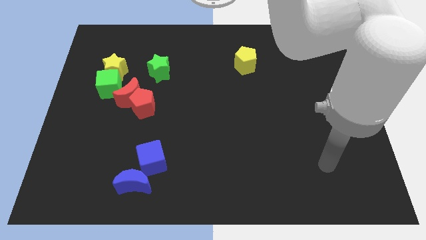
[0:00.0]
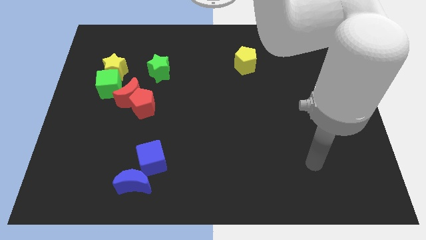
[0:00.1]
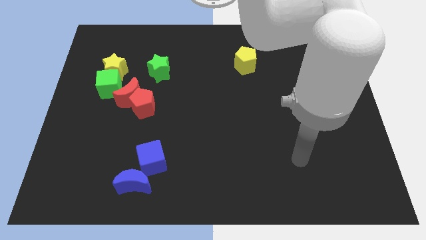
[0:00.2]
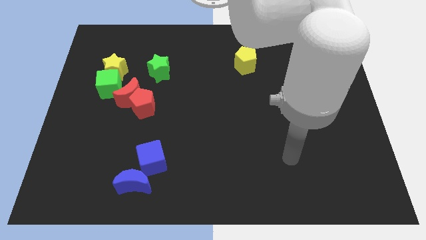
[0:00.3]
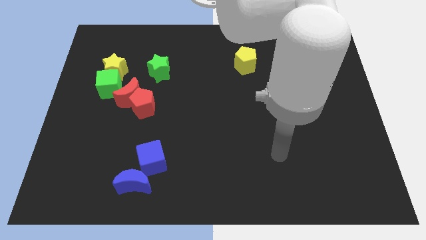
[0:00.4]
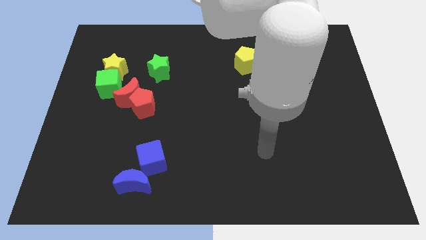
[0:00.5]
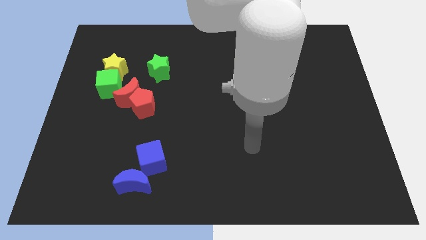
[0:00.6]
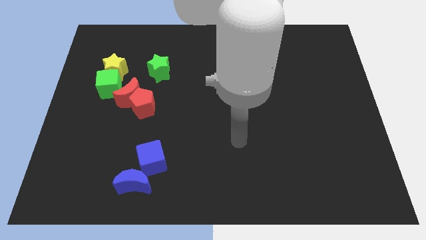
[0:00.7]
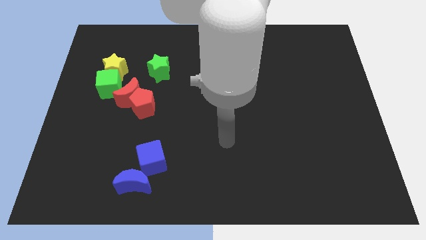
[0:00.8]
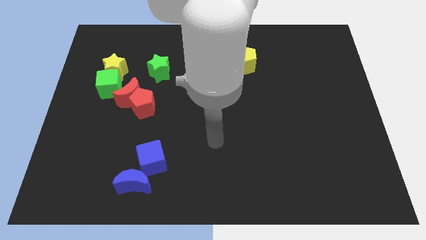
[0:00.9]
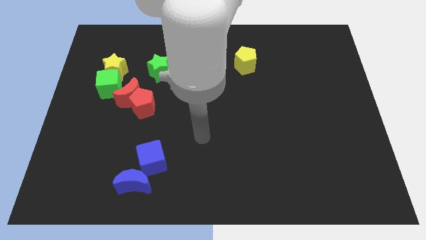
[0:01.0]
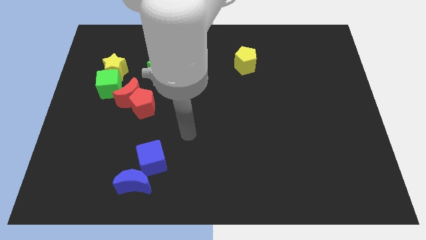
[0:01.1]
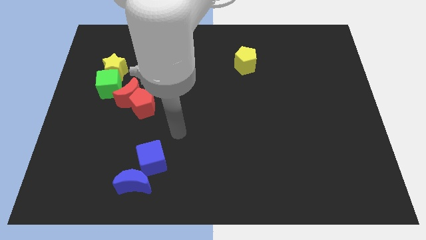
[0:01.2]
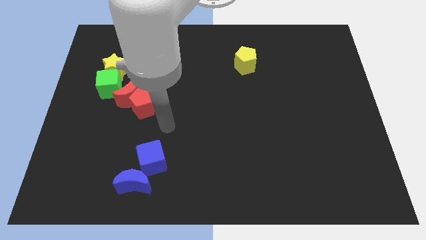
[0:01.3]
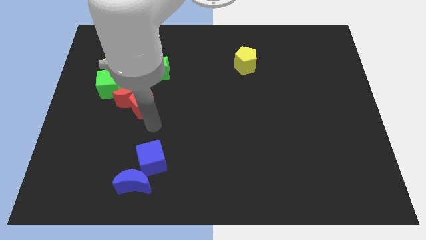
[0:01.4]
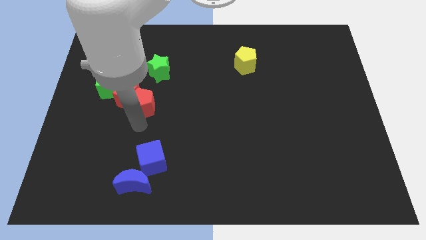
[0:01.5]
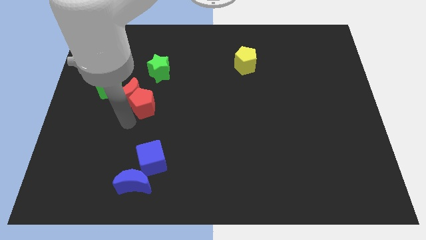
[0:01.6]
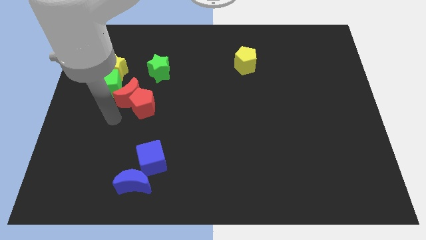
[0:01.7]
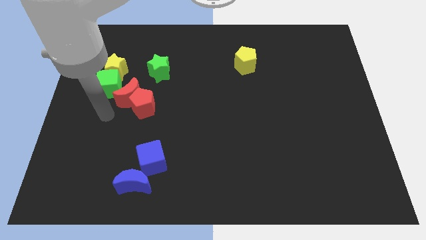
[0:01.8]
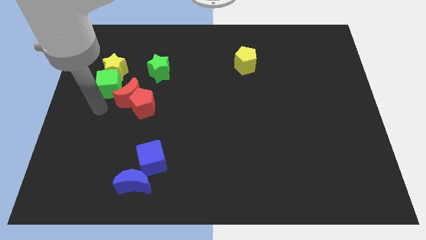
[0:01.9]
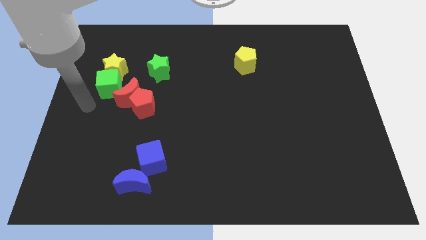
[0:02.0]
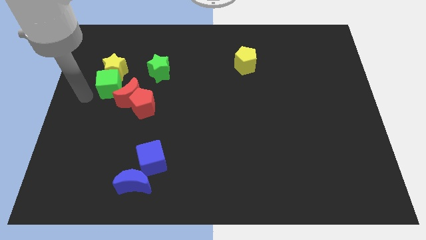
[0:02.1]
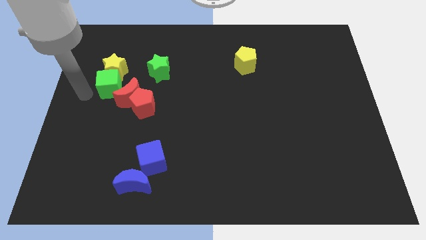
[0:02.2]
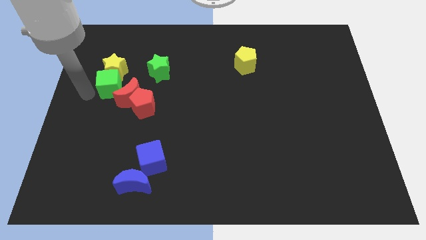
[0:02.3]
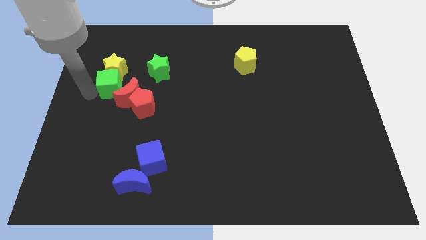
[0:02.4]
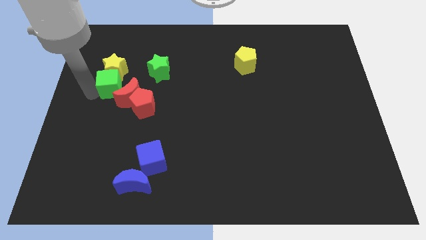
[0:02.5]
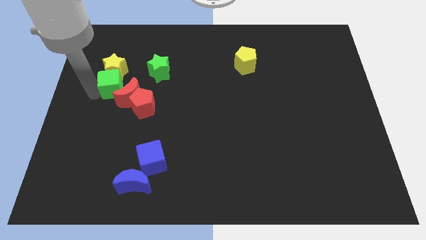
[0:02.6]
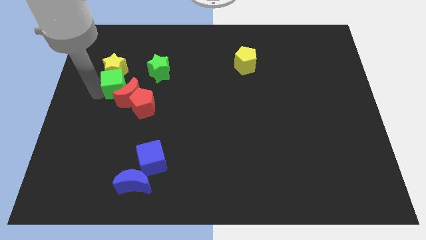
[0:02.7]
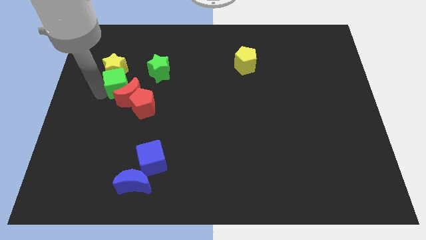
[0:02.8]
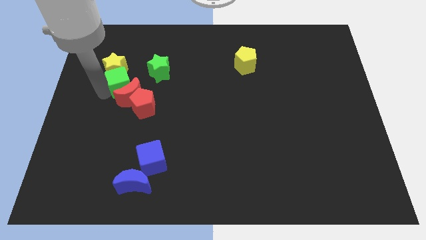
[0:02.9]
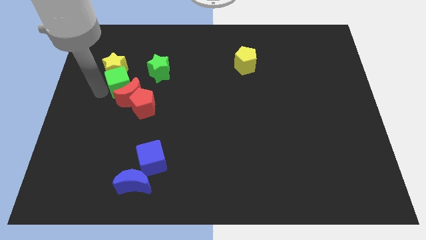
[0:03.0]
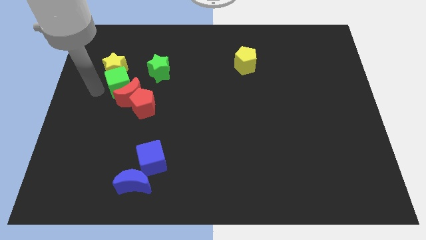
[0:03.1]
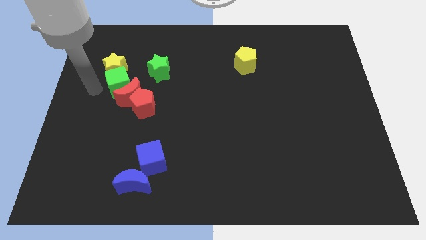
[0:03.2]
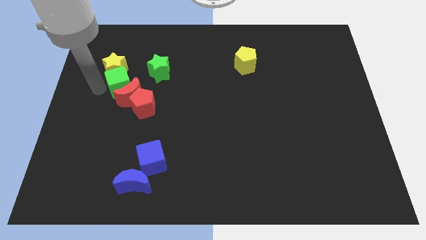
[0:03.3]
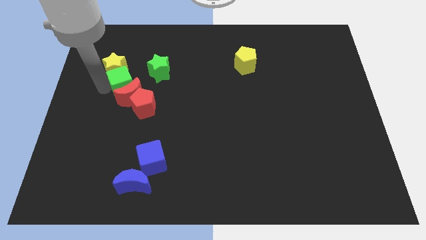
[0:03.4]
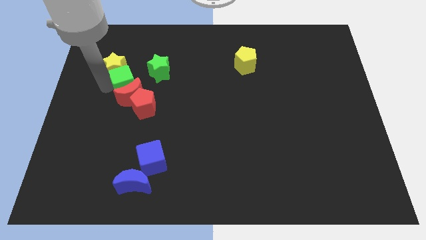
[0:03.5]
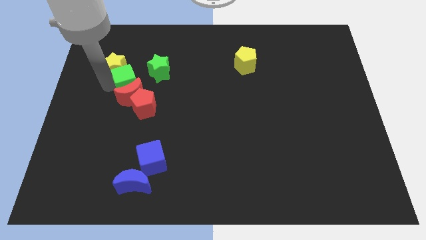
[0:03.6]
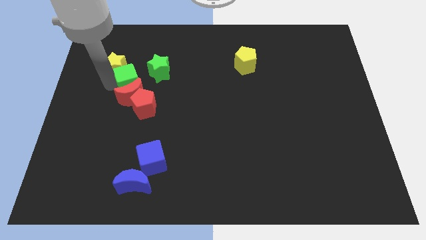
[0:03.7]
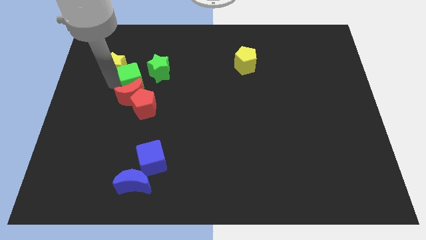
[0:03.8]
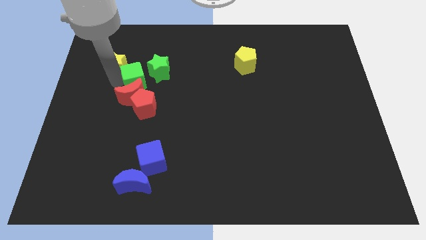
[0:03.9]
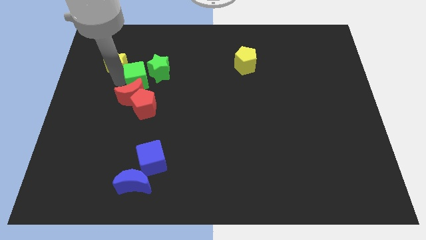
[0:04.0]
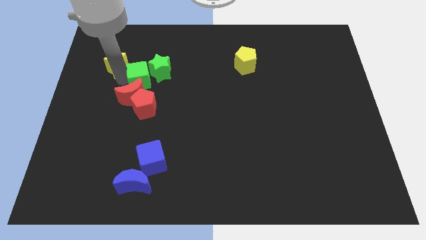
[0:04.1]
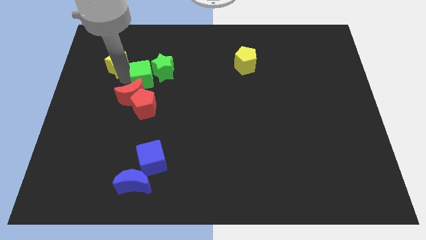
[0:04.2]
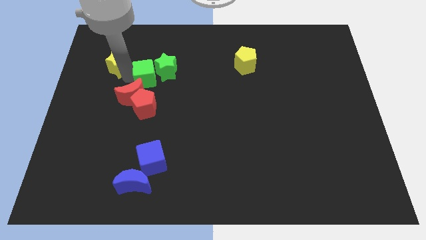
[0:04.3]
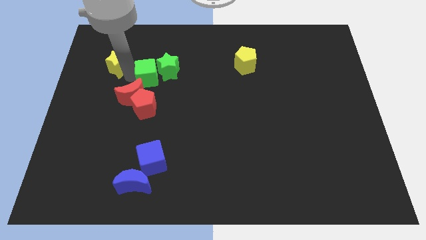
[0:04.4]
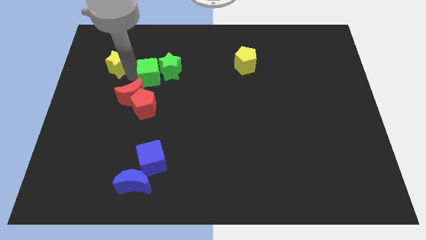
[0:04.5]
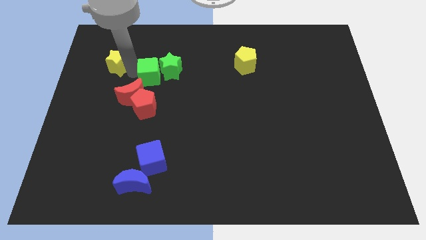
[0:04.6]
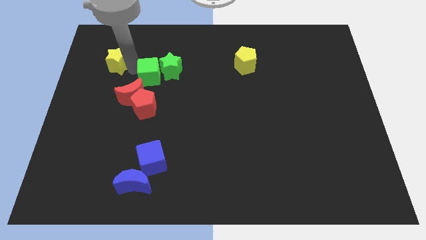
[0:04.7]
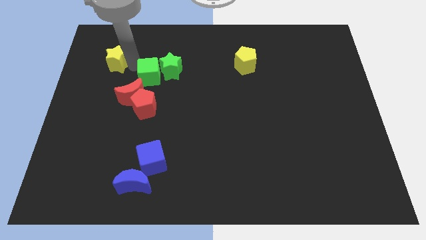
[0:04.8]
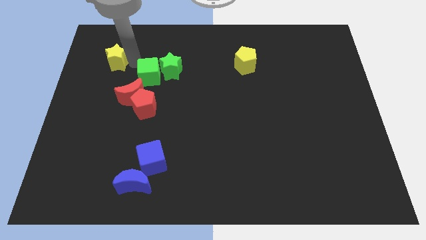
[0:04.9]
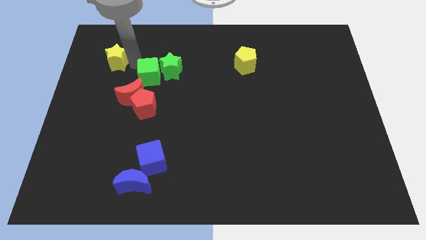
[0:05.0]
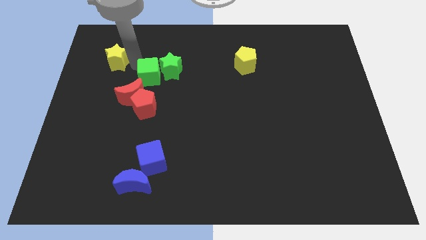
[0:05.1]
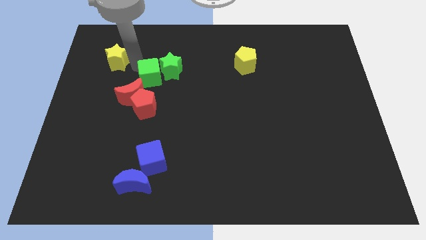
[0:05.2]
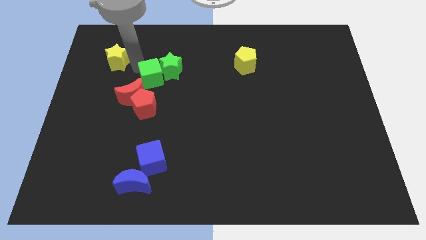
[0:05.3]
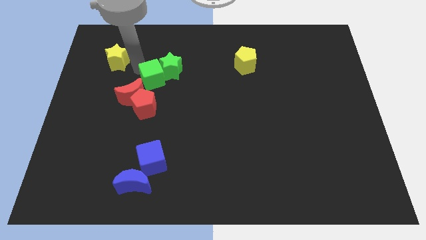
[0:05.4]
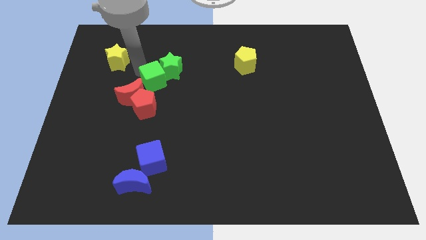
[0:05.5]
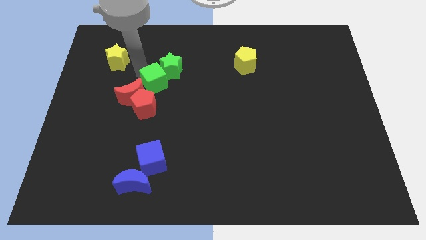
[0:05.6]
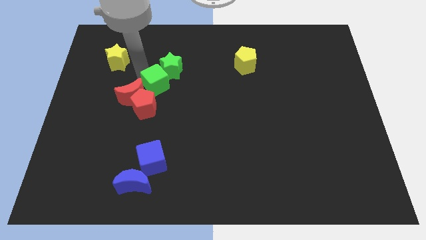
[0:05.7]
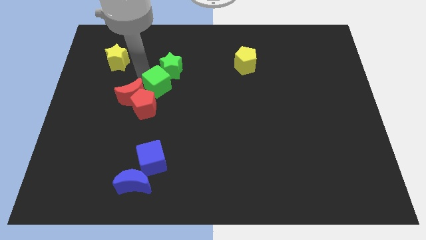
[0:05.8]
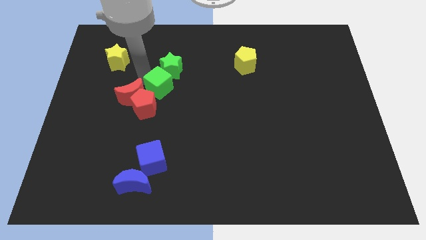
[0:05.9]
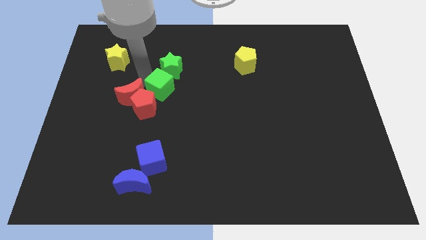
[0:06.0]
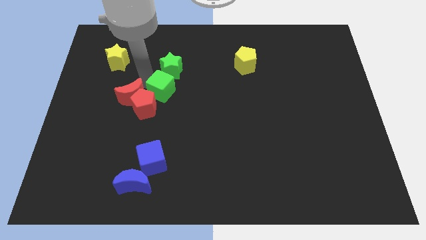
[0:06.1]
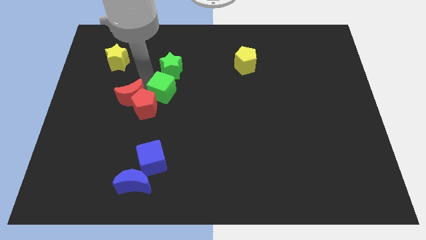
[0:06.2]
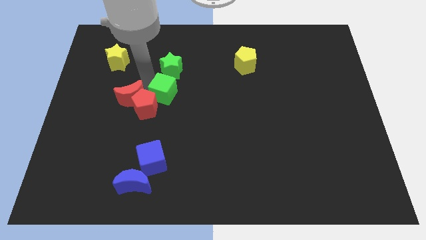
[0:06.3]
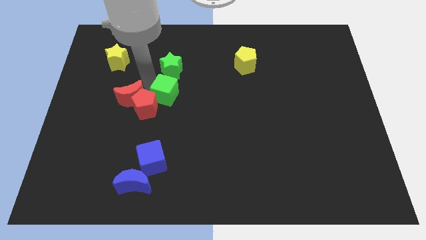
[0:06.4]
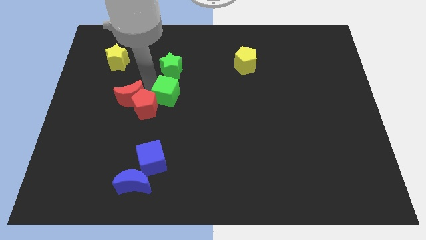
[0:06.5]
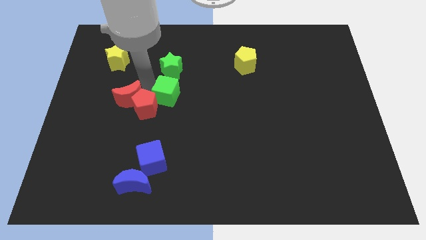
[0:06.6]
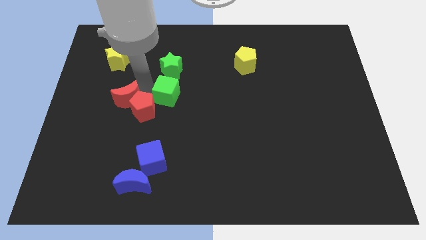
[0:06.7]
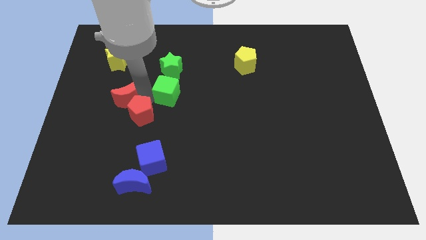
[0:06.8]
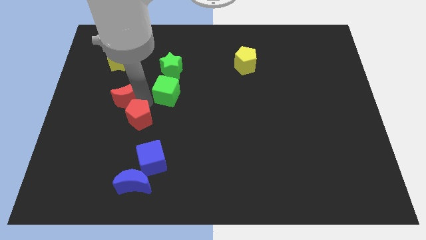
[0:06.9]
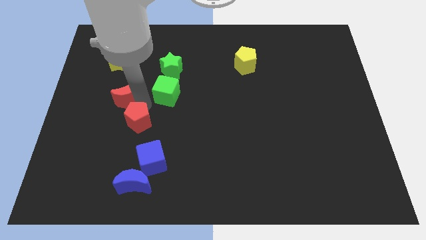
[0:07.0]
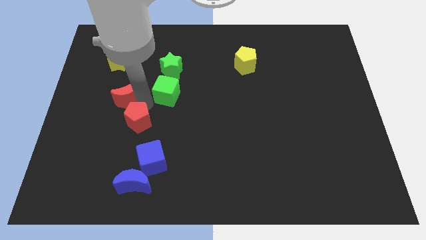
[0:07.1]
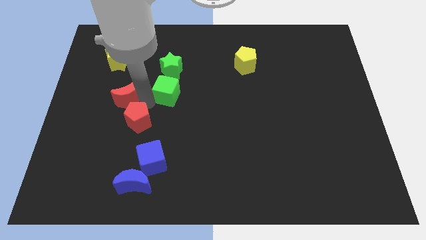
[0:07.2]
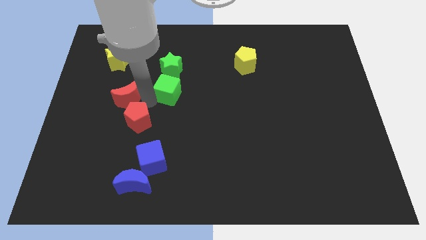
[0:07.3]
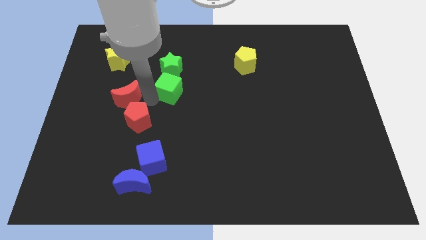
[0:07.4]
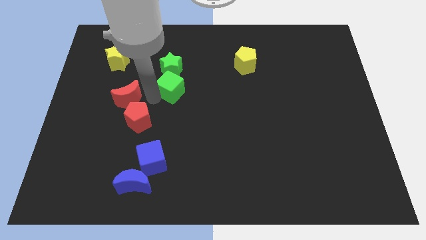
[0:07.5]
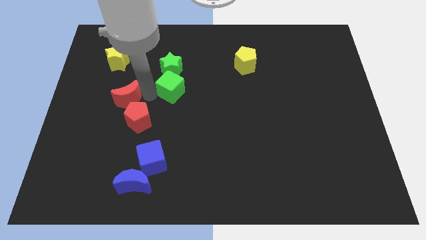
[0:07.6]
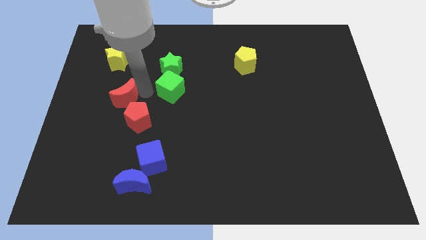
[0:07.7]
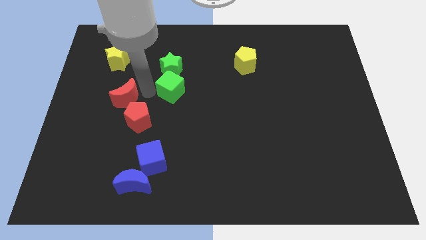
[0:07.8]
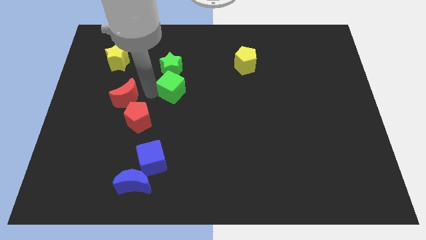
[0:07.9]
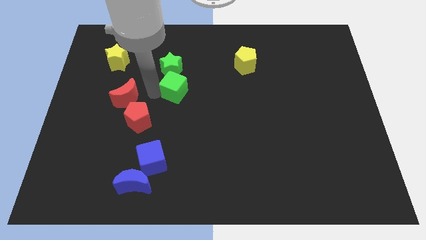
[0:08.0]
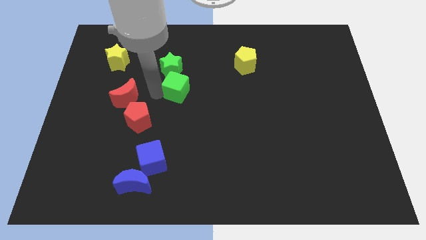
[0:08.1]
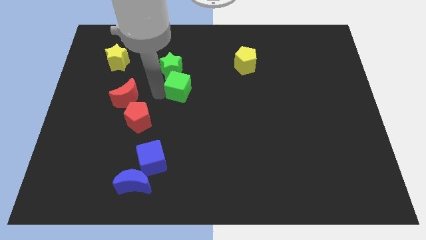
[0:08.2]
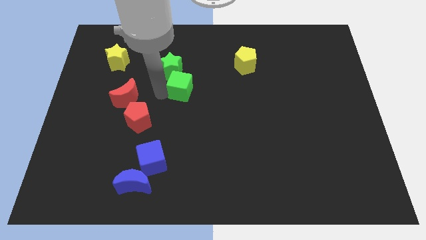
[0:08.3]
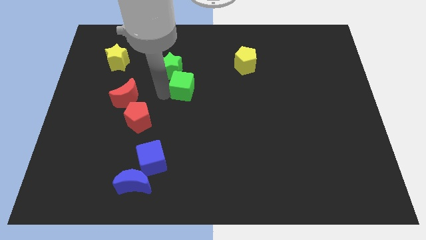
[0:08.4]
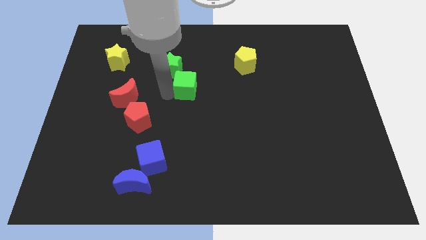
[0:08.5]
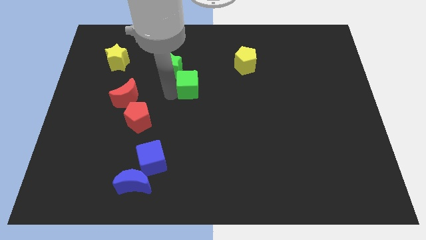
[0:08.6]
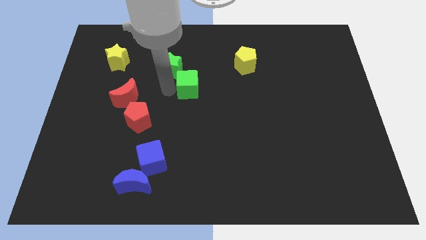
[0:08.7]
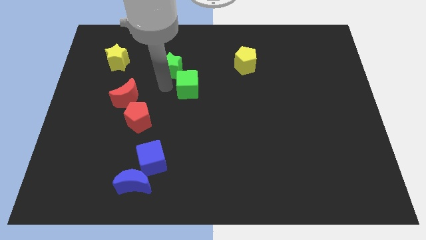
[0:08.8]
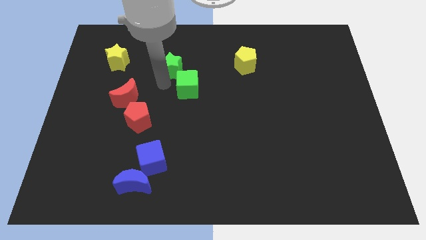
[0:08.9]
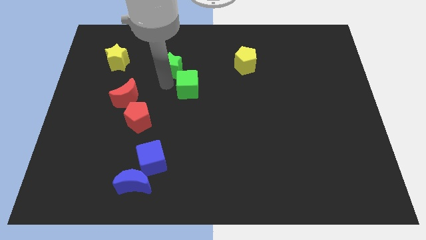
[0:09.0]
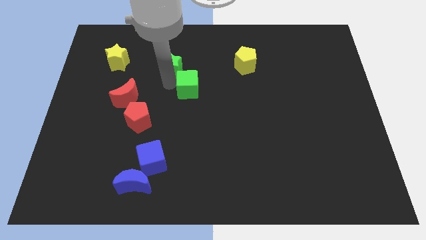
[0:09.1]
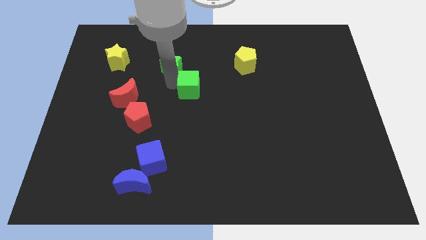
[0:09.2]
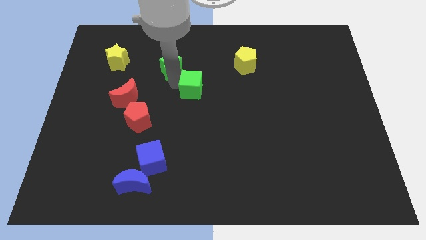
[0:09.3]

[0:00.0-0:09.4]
move the green cube right
